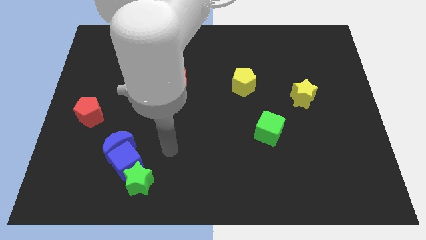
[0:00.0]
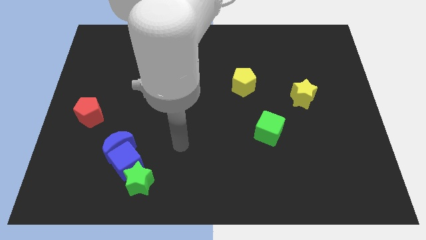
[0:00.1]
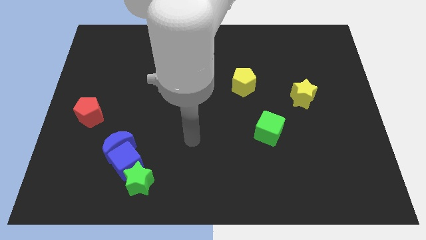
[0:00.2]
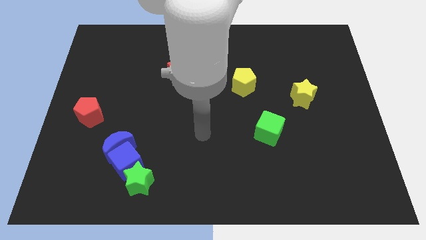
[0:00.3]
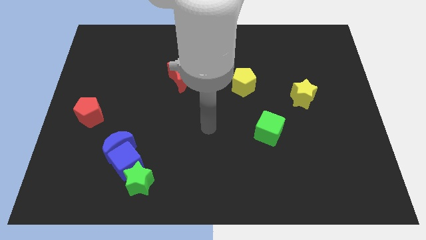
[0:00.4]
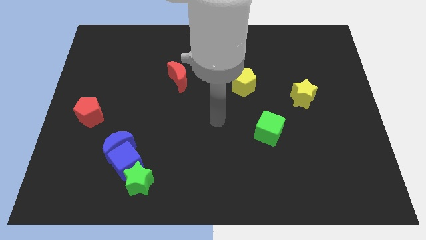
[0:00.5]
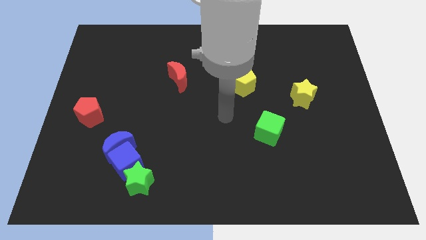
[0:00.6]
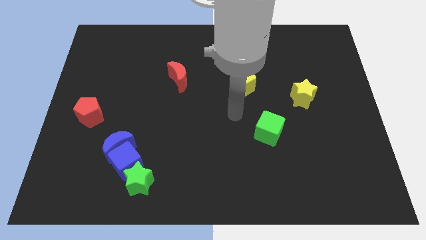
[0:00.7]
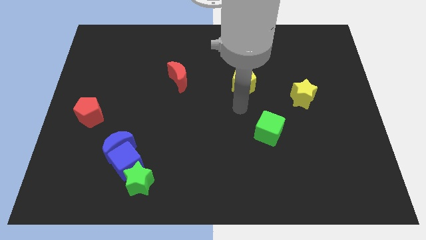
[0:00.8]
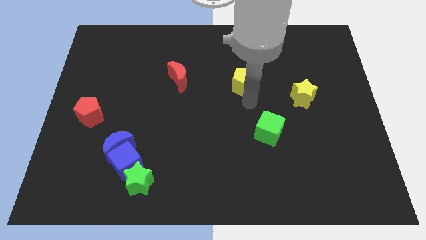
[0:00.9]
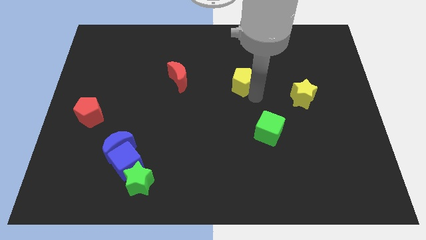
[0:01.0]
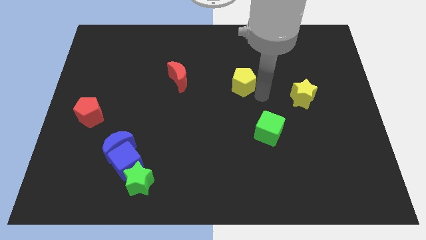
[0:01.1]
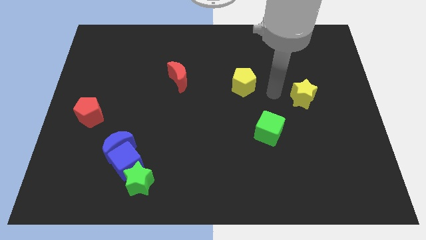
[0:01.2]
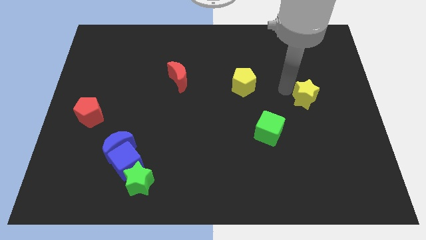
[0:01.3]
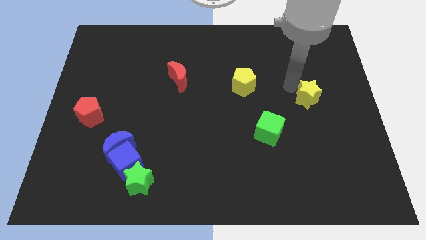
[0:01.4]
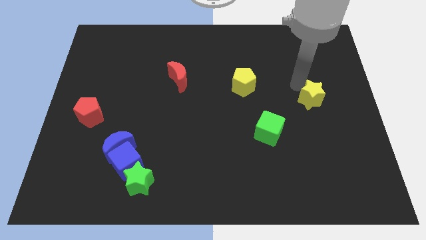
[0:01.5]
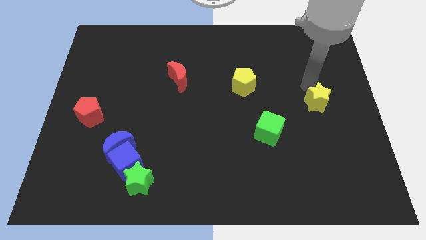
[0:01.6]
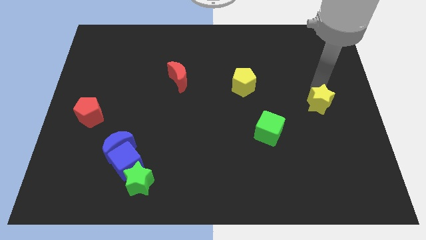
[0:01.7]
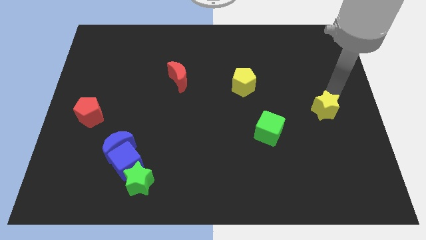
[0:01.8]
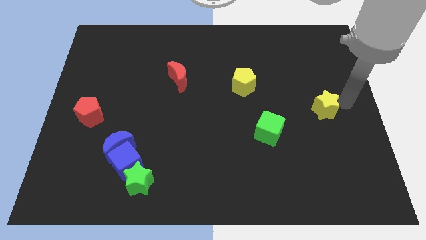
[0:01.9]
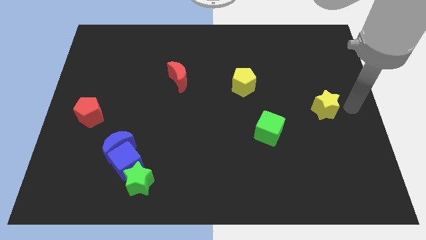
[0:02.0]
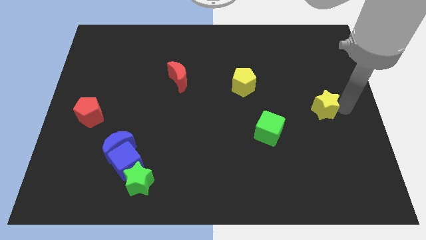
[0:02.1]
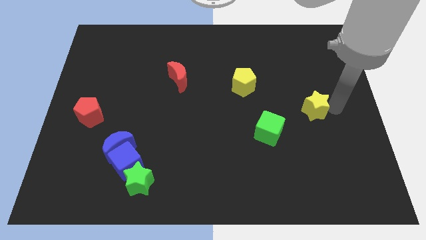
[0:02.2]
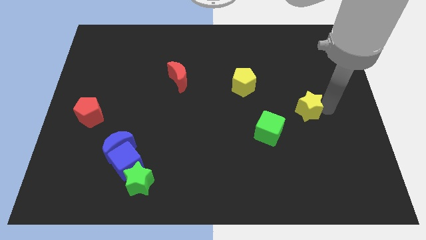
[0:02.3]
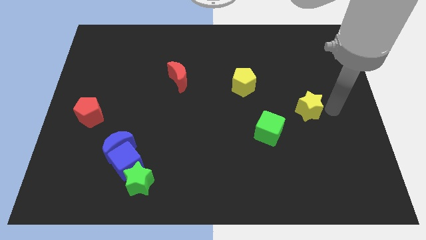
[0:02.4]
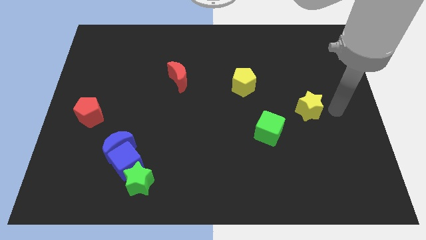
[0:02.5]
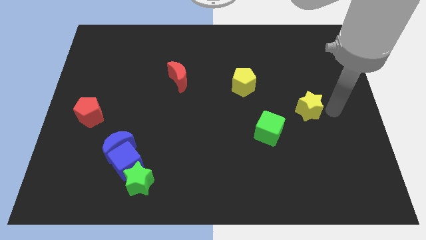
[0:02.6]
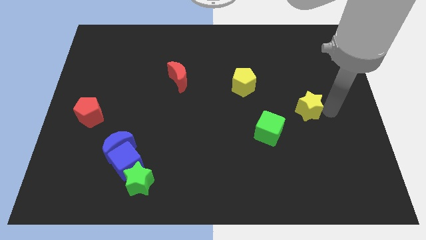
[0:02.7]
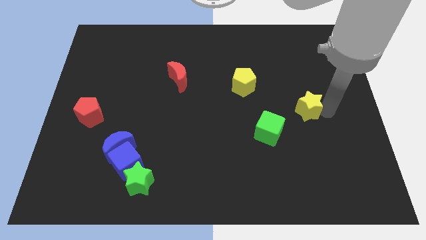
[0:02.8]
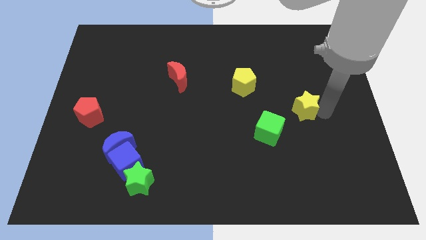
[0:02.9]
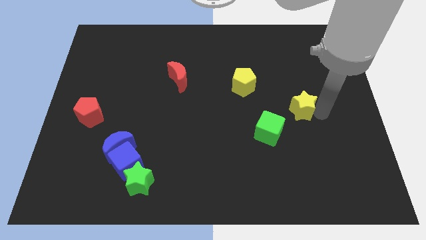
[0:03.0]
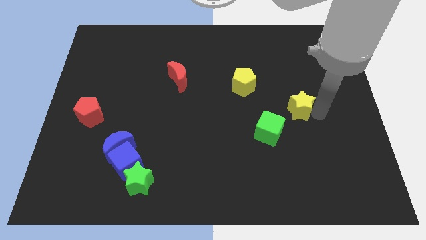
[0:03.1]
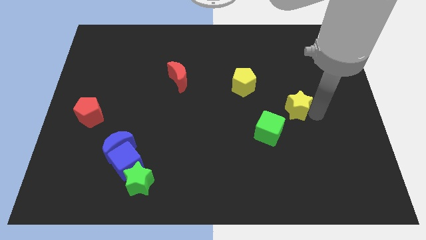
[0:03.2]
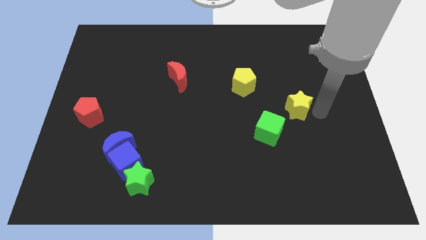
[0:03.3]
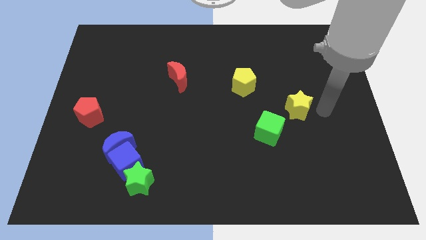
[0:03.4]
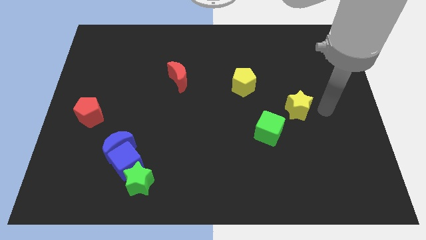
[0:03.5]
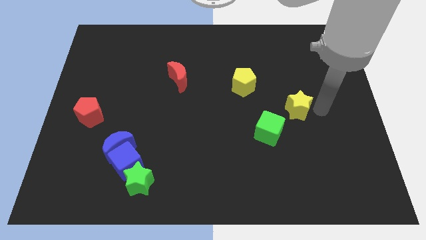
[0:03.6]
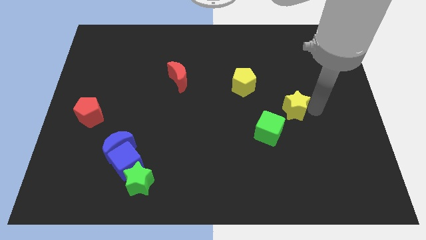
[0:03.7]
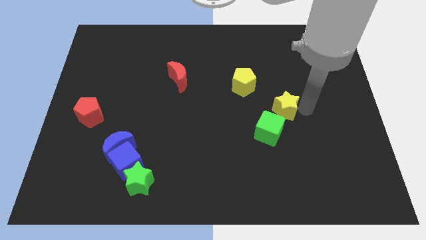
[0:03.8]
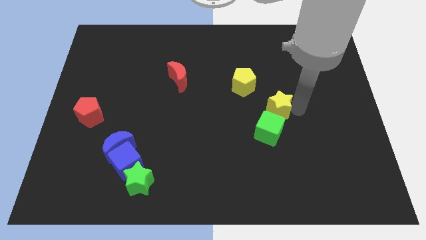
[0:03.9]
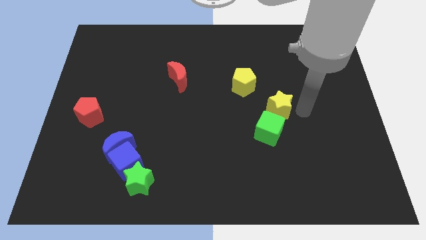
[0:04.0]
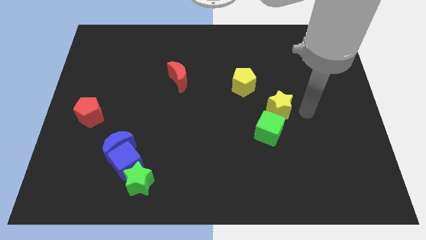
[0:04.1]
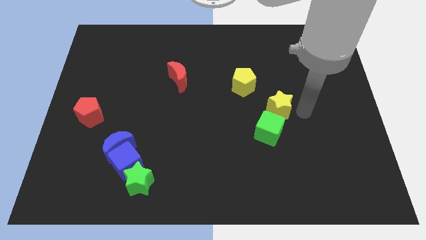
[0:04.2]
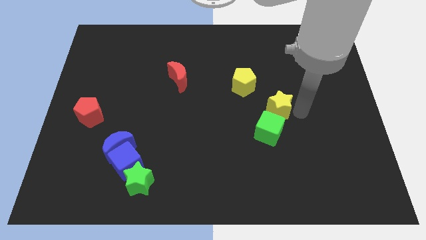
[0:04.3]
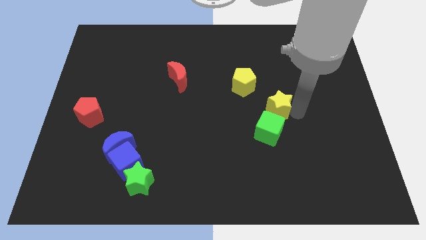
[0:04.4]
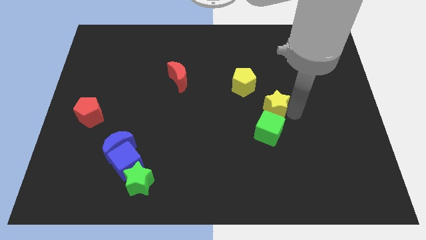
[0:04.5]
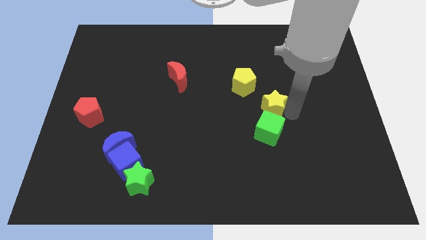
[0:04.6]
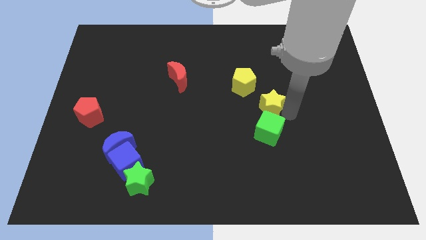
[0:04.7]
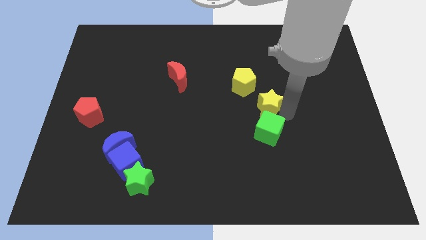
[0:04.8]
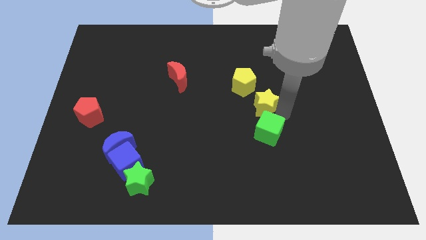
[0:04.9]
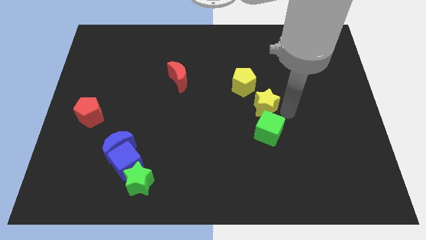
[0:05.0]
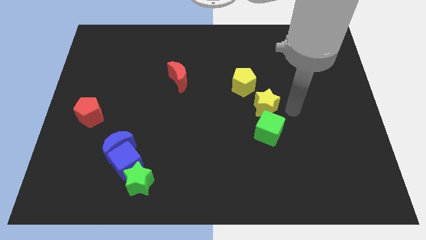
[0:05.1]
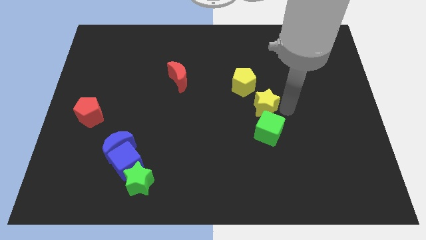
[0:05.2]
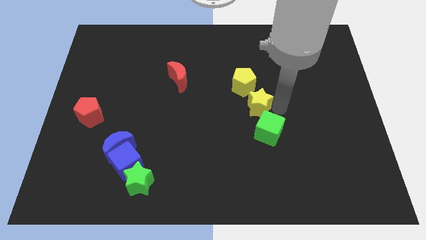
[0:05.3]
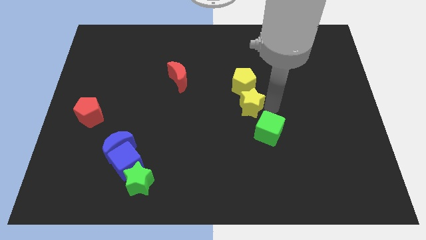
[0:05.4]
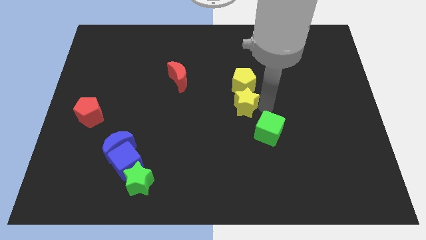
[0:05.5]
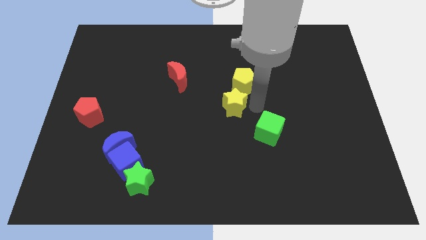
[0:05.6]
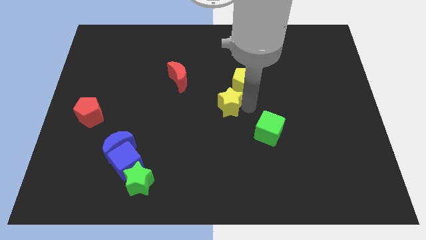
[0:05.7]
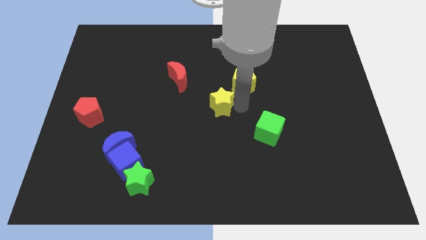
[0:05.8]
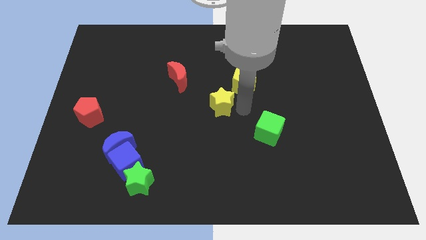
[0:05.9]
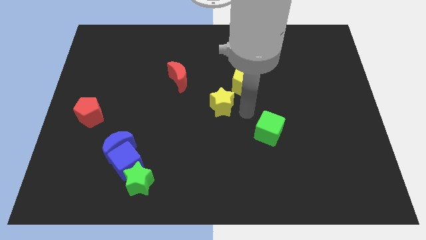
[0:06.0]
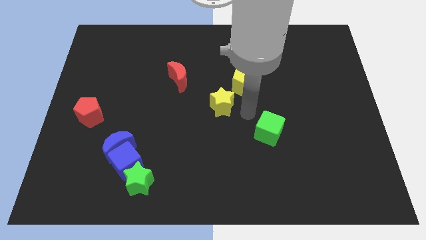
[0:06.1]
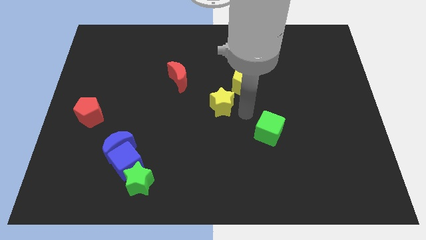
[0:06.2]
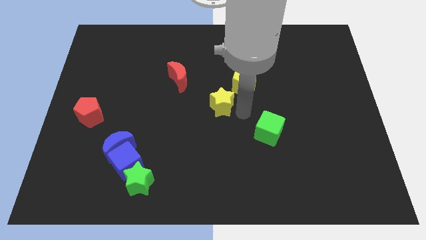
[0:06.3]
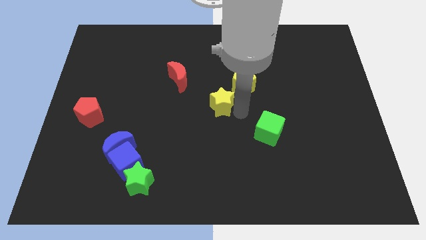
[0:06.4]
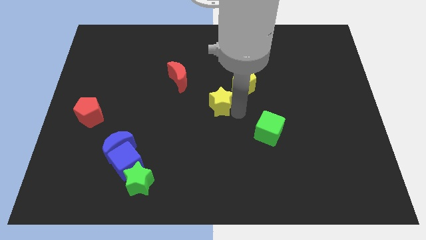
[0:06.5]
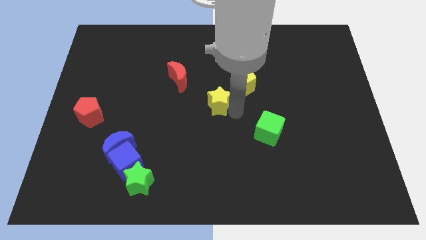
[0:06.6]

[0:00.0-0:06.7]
move the yellow star left

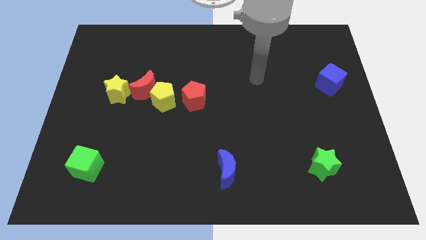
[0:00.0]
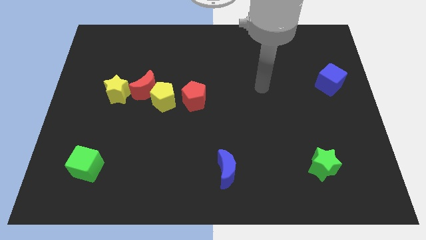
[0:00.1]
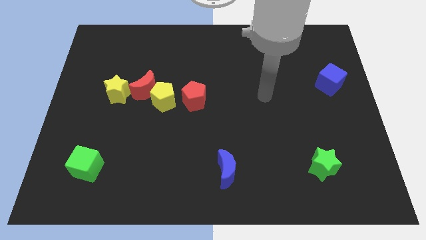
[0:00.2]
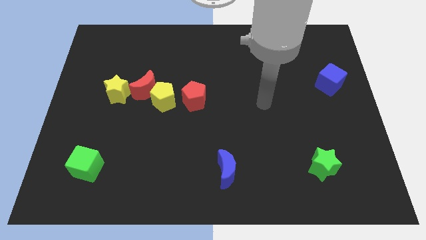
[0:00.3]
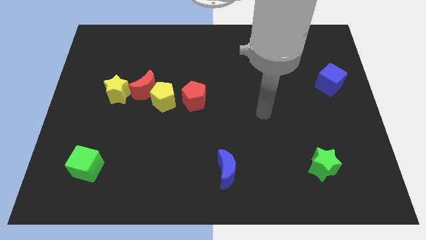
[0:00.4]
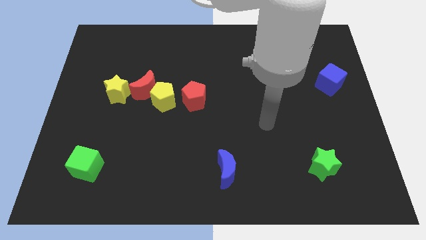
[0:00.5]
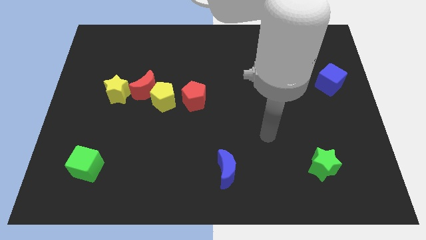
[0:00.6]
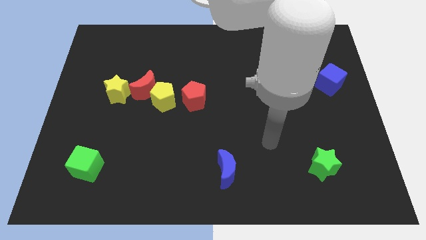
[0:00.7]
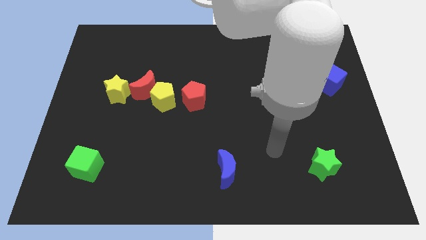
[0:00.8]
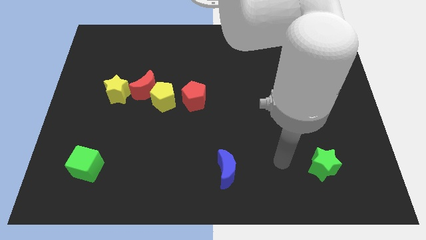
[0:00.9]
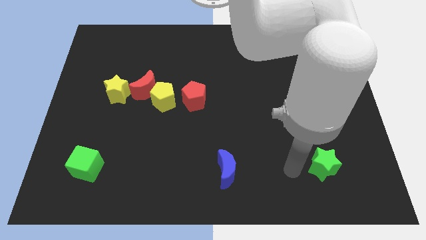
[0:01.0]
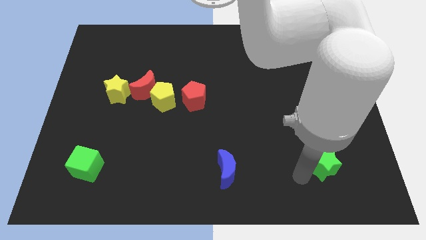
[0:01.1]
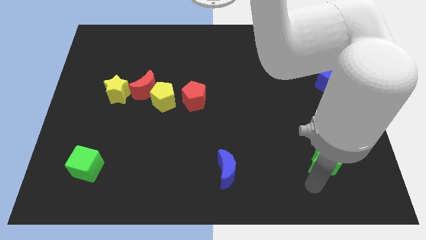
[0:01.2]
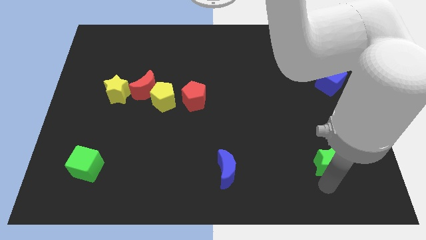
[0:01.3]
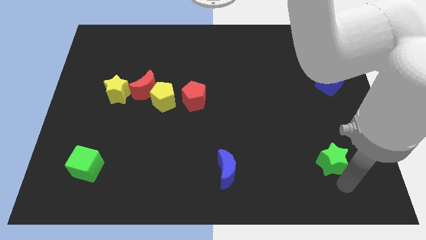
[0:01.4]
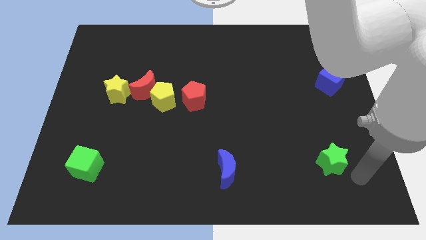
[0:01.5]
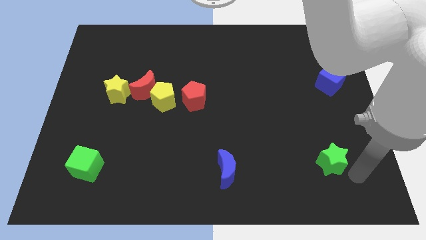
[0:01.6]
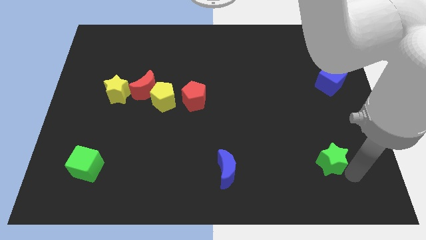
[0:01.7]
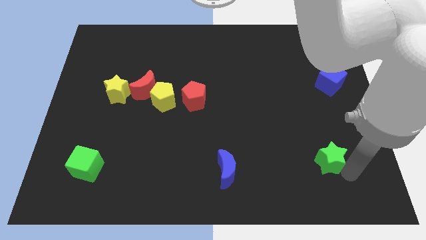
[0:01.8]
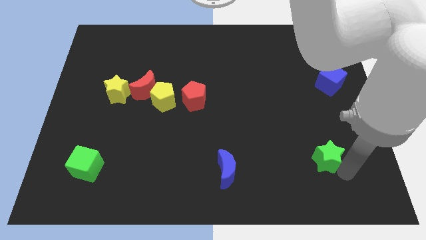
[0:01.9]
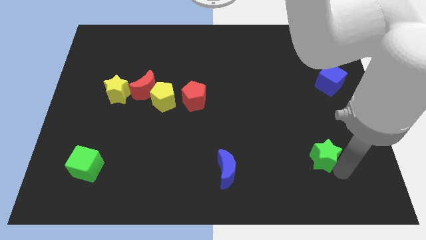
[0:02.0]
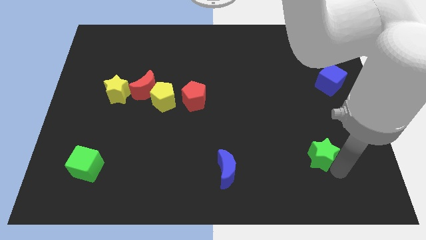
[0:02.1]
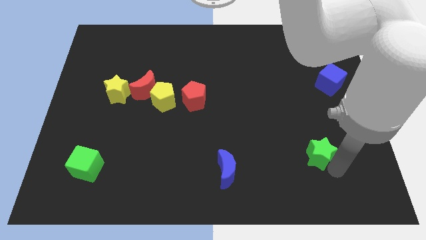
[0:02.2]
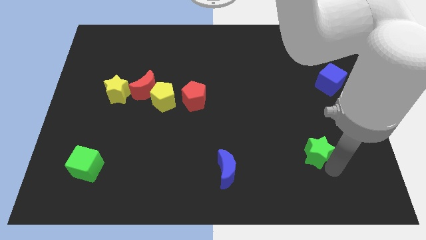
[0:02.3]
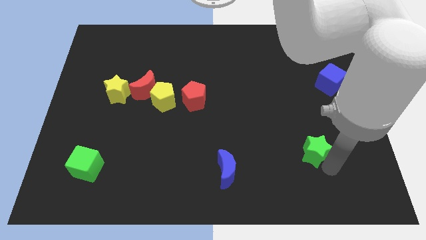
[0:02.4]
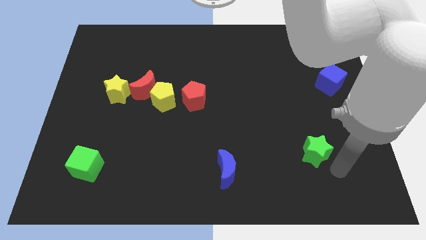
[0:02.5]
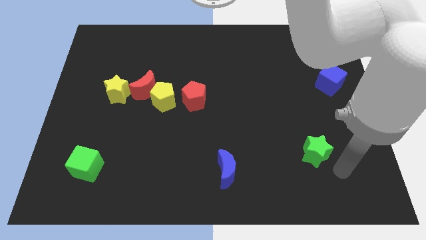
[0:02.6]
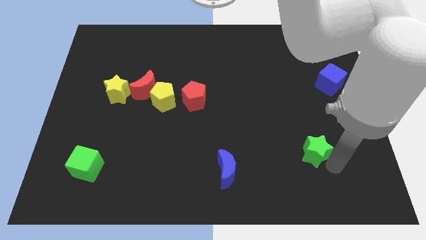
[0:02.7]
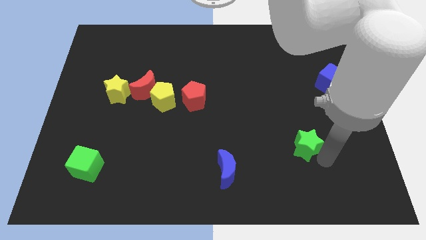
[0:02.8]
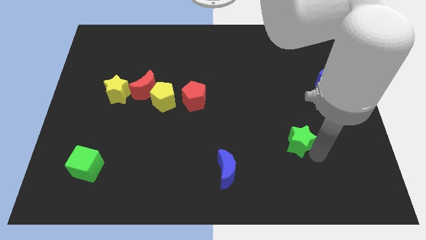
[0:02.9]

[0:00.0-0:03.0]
push the green star a little up and to the left diagonally
